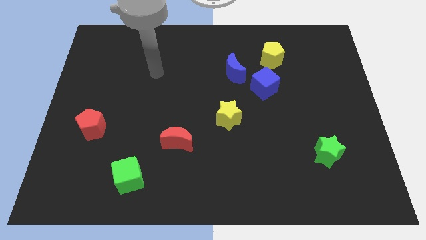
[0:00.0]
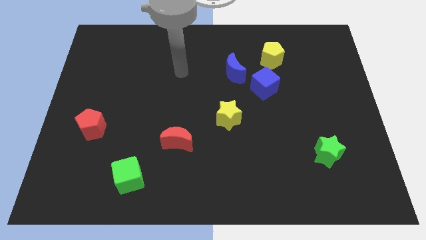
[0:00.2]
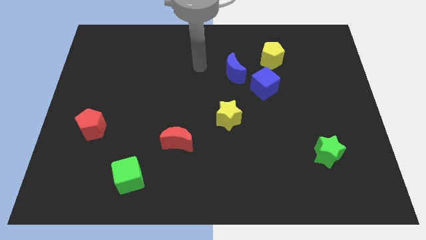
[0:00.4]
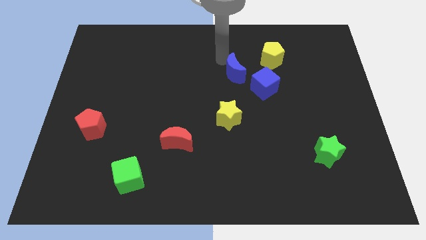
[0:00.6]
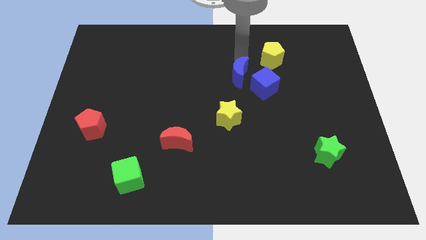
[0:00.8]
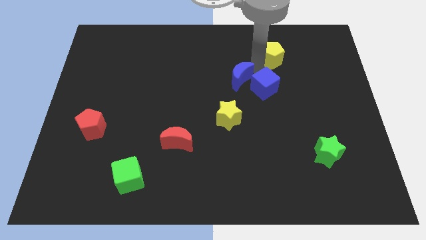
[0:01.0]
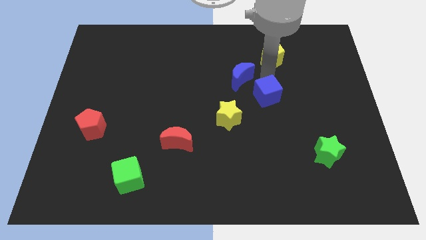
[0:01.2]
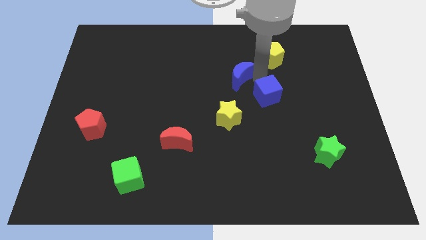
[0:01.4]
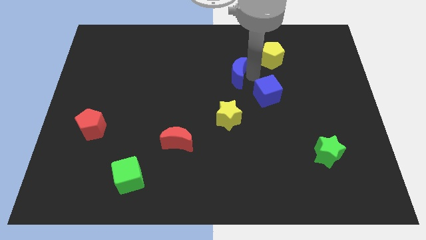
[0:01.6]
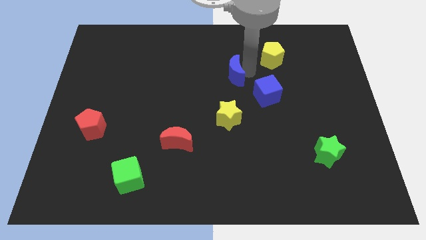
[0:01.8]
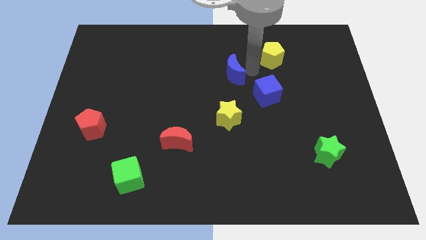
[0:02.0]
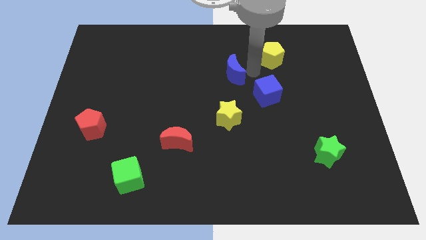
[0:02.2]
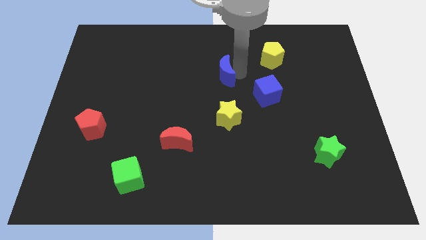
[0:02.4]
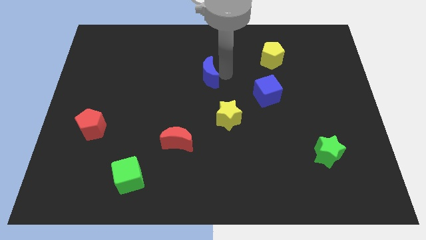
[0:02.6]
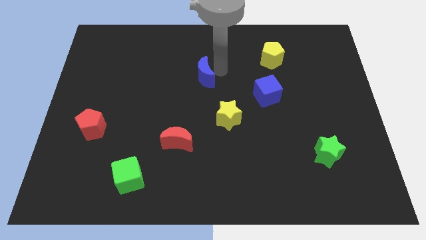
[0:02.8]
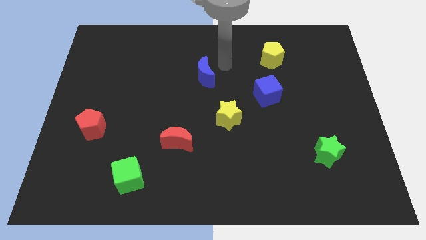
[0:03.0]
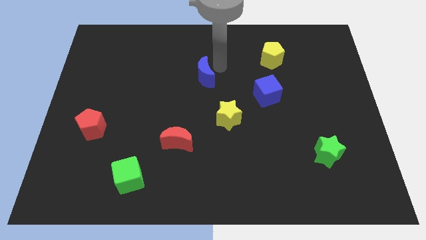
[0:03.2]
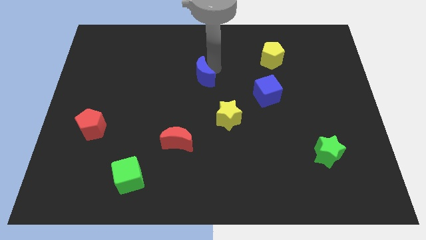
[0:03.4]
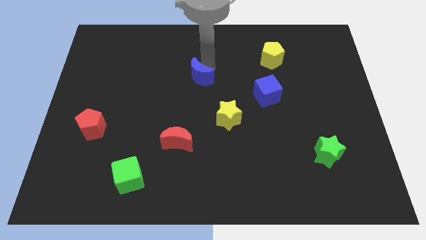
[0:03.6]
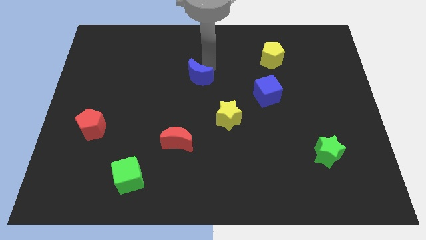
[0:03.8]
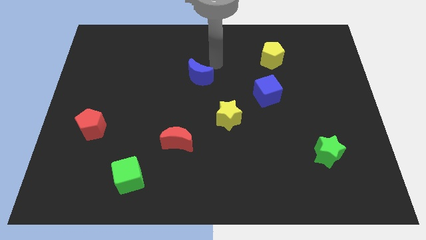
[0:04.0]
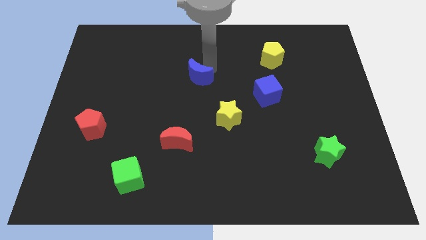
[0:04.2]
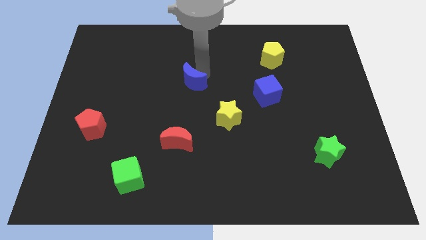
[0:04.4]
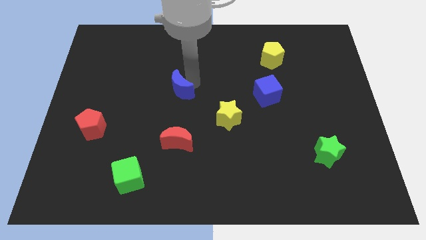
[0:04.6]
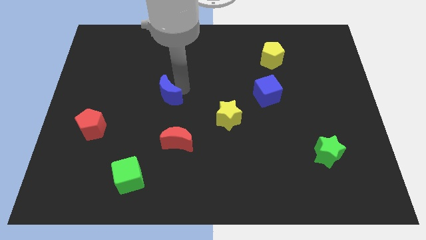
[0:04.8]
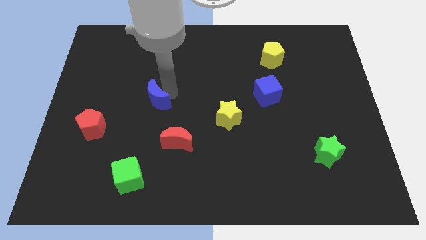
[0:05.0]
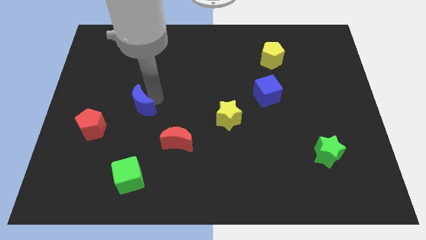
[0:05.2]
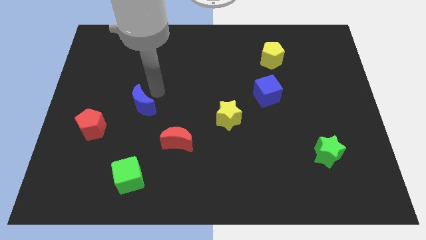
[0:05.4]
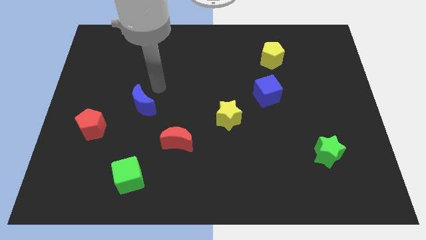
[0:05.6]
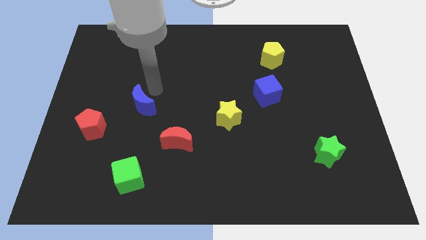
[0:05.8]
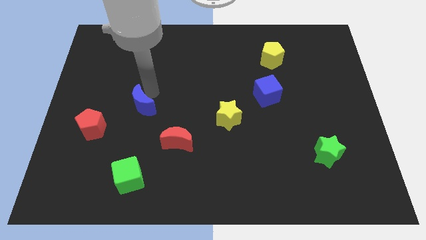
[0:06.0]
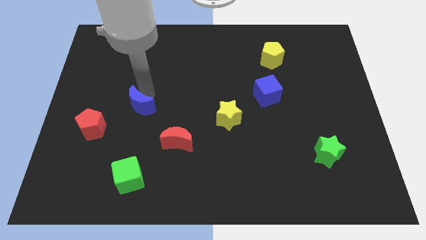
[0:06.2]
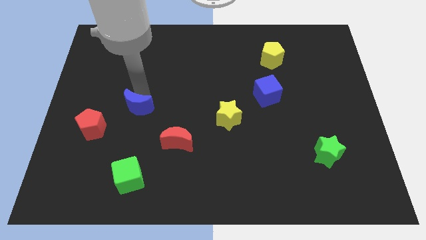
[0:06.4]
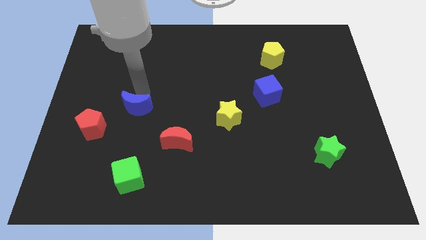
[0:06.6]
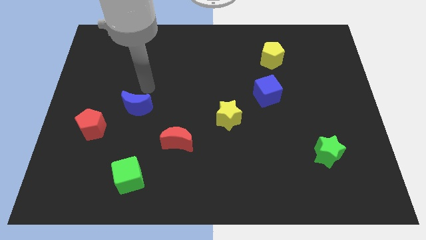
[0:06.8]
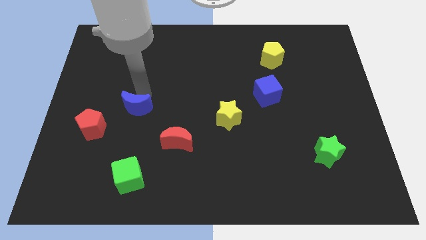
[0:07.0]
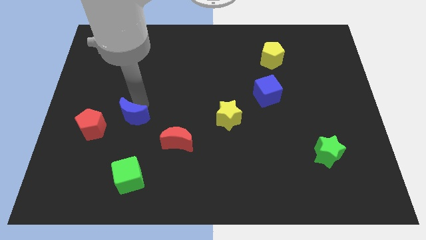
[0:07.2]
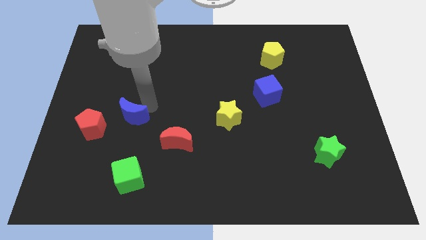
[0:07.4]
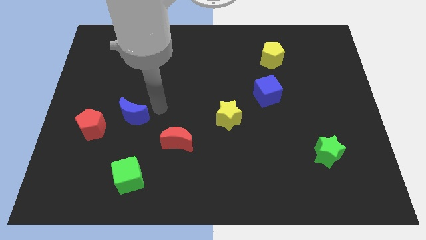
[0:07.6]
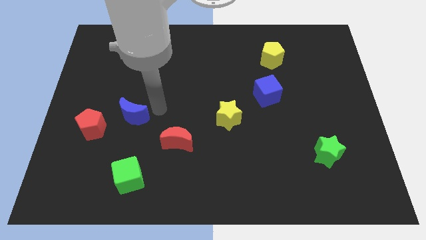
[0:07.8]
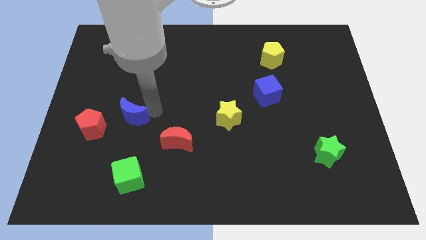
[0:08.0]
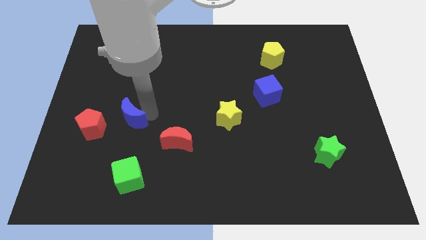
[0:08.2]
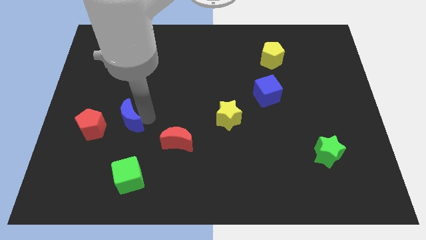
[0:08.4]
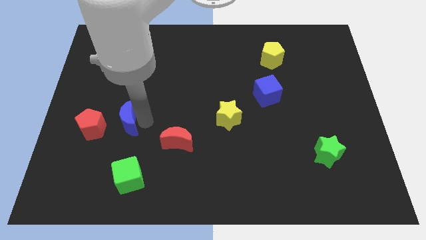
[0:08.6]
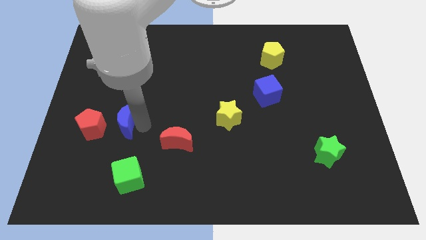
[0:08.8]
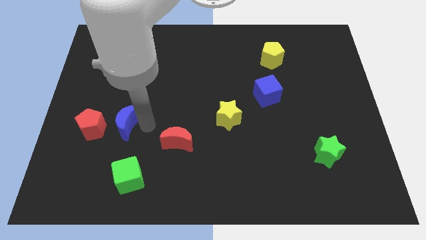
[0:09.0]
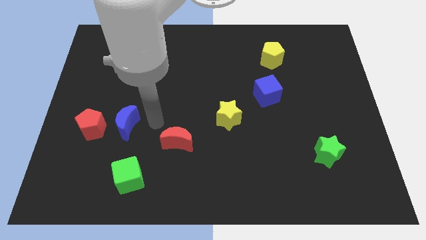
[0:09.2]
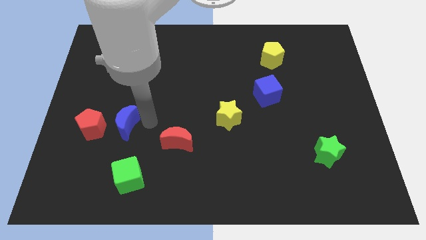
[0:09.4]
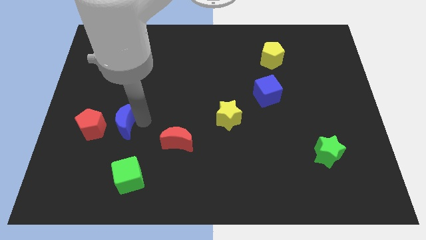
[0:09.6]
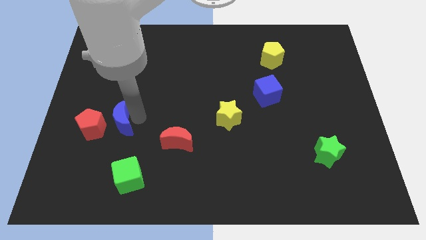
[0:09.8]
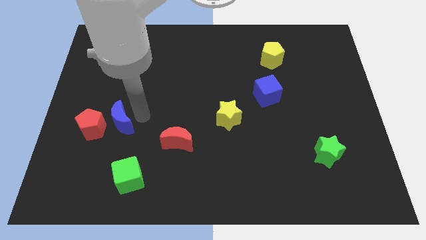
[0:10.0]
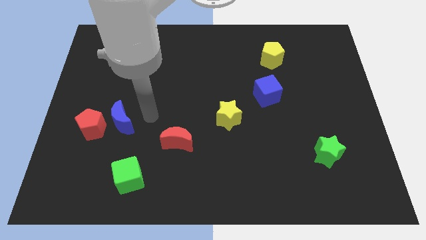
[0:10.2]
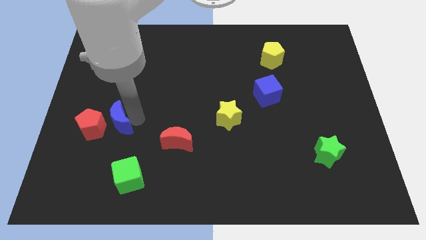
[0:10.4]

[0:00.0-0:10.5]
slide the blue moon towards the red pentagon

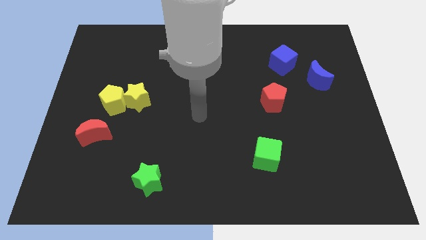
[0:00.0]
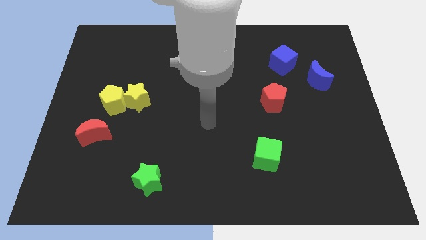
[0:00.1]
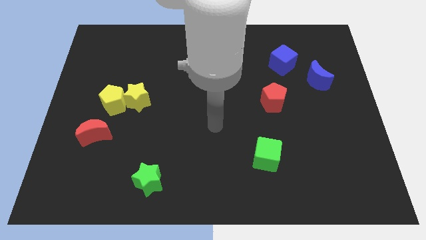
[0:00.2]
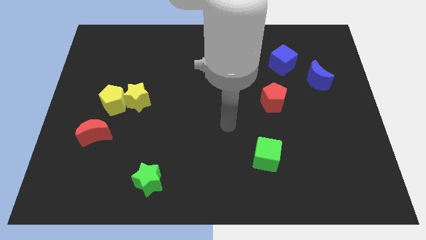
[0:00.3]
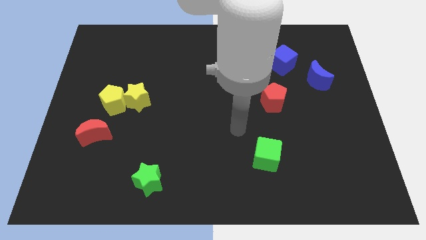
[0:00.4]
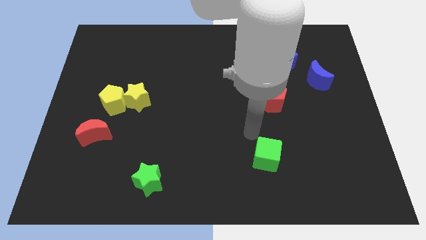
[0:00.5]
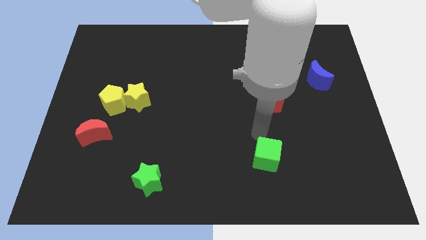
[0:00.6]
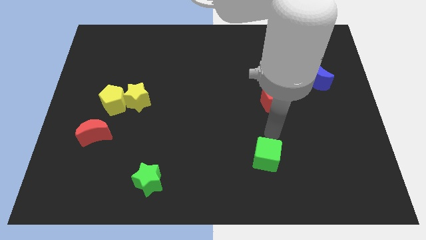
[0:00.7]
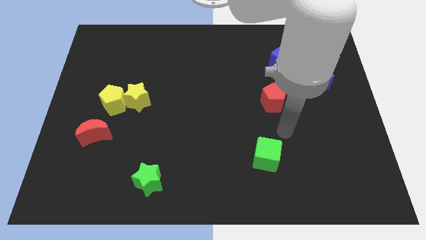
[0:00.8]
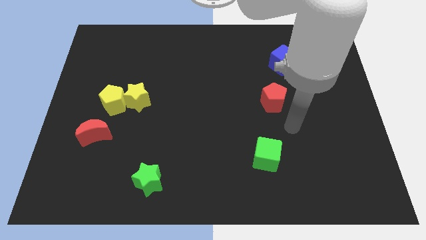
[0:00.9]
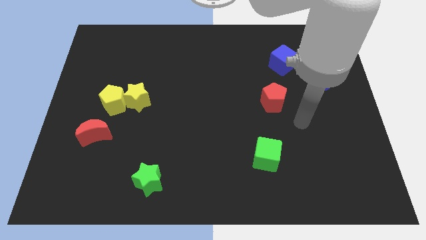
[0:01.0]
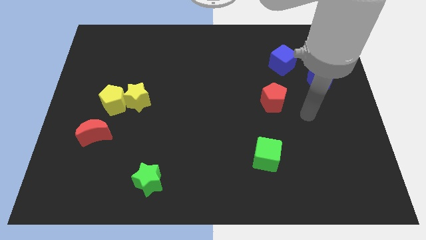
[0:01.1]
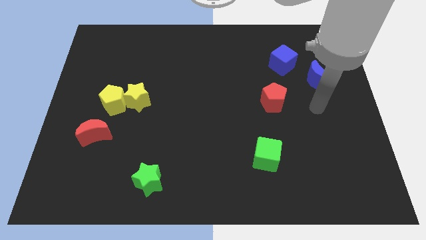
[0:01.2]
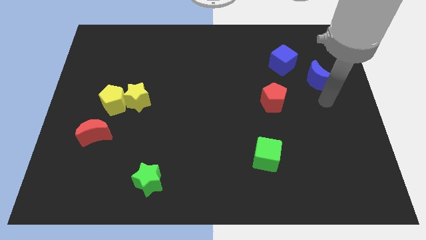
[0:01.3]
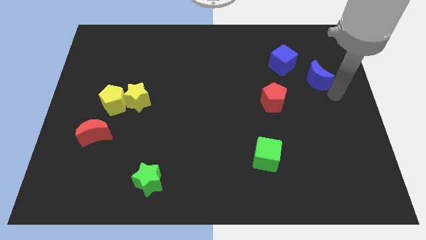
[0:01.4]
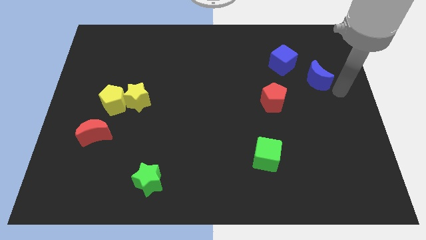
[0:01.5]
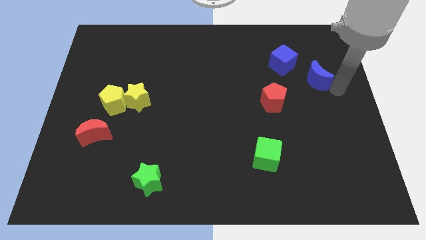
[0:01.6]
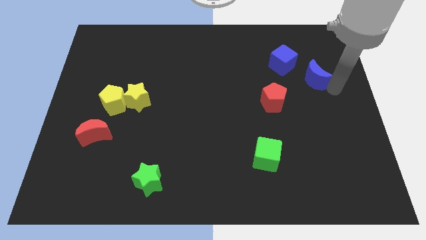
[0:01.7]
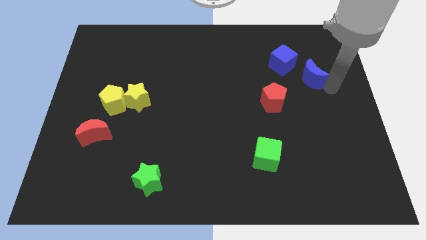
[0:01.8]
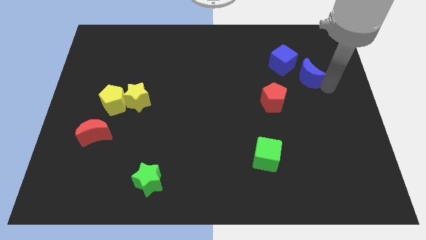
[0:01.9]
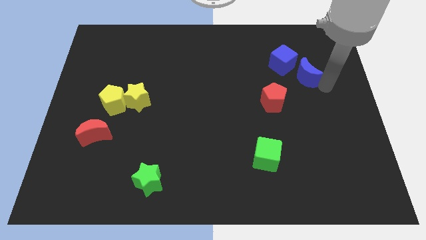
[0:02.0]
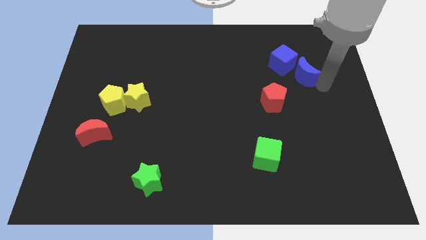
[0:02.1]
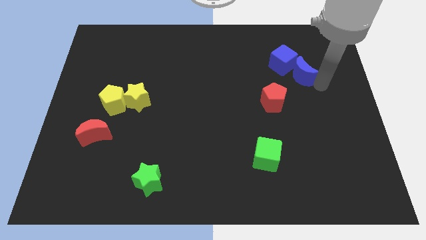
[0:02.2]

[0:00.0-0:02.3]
slide the blue moon close to the blue cube
